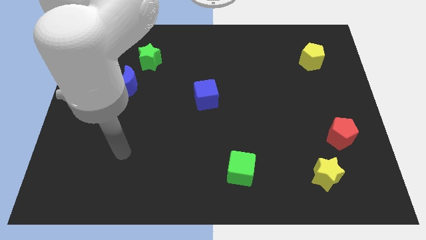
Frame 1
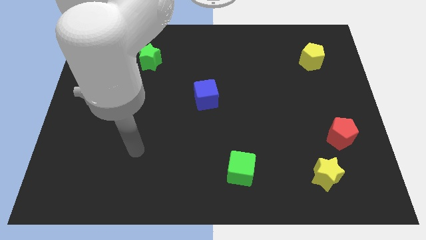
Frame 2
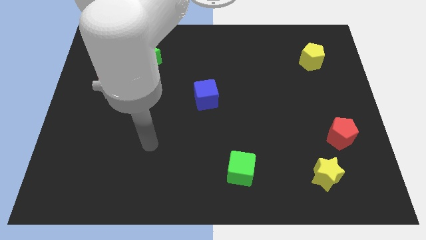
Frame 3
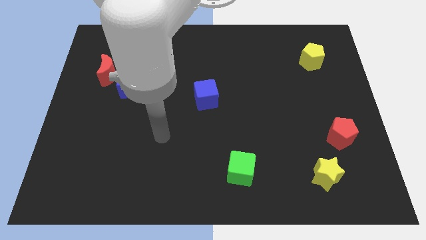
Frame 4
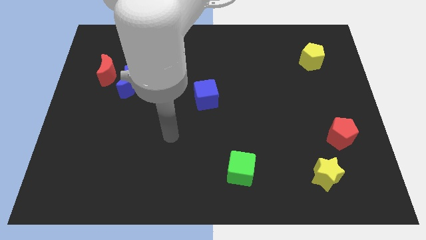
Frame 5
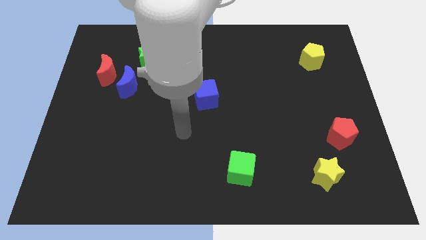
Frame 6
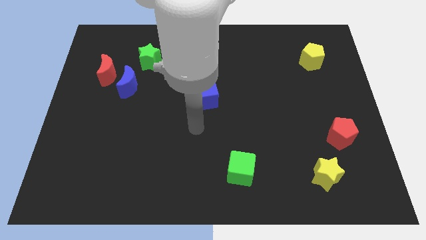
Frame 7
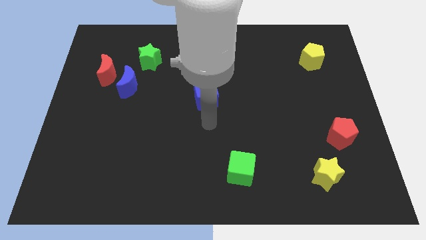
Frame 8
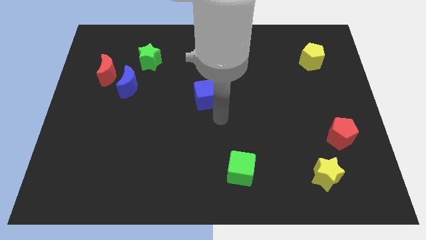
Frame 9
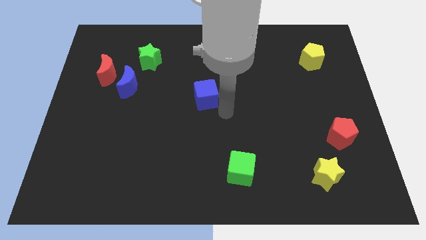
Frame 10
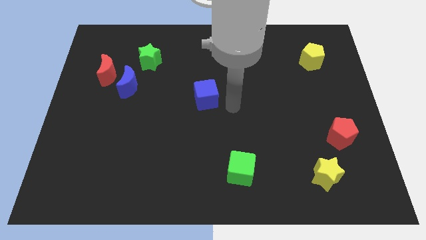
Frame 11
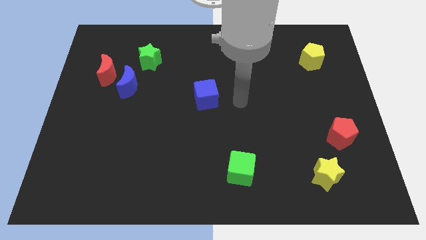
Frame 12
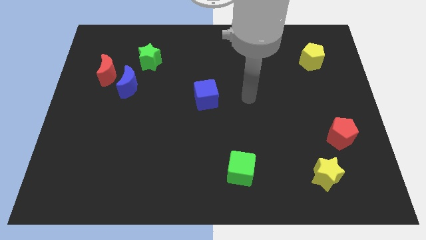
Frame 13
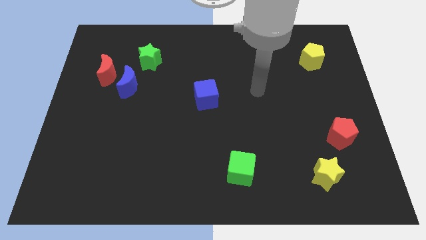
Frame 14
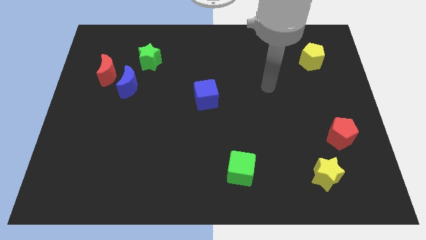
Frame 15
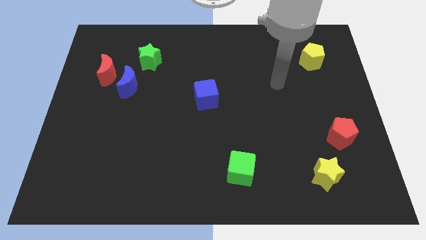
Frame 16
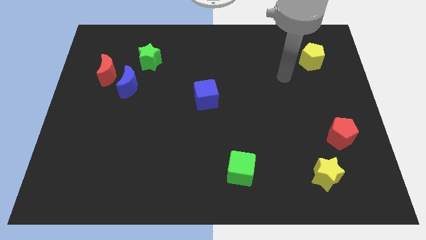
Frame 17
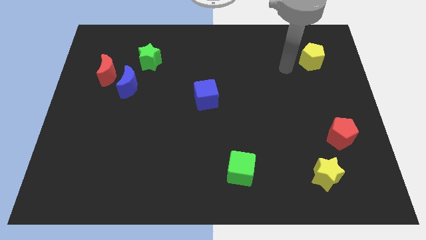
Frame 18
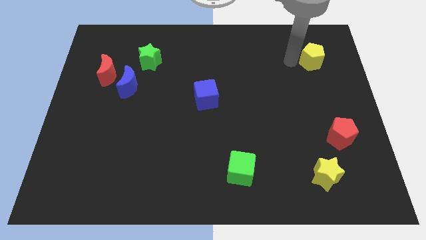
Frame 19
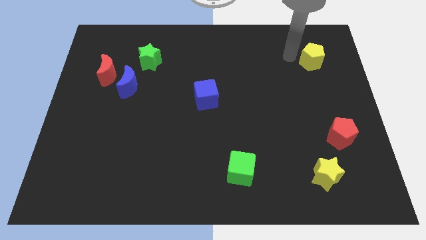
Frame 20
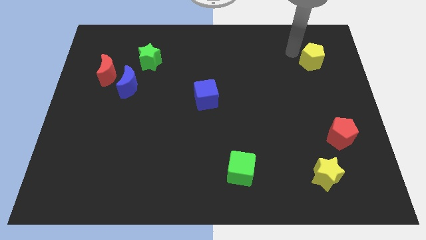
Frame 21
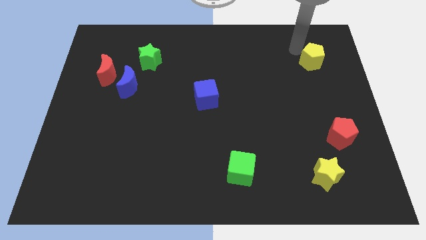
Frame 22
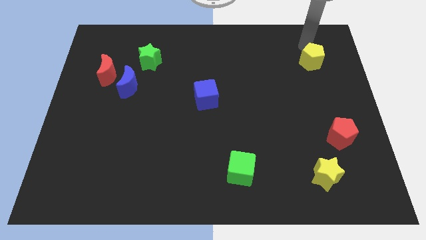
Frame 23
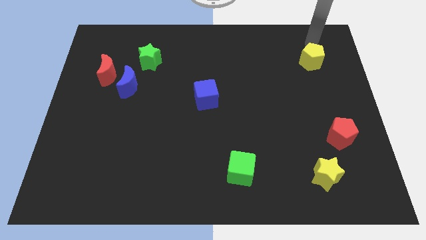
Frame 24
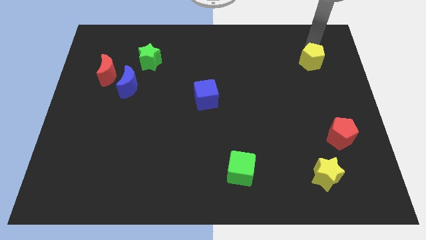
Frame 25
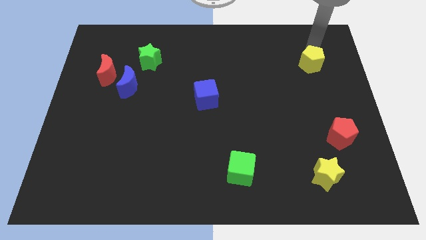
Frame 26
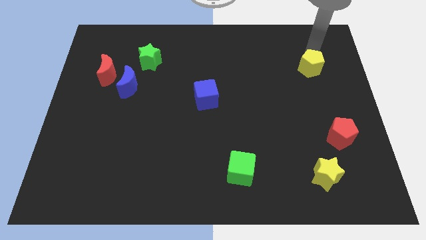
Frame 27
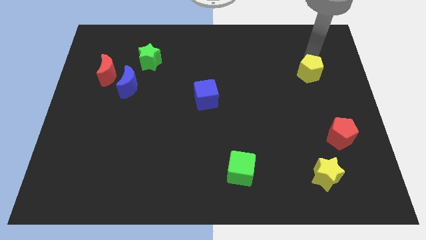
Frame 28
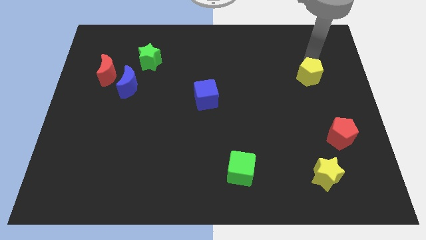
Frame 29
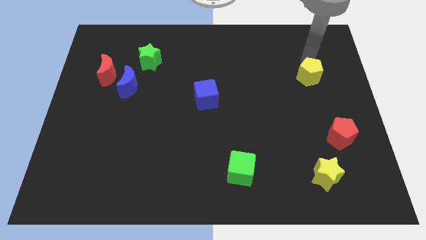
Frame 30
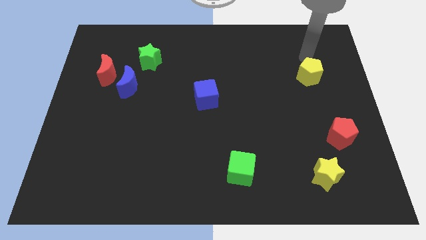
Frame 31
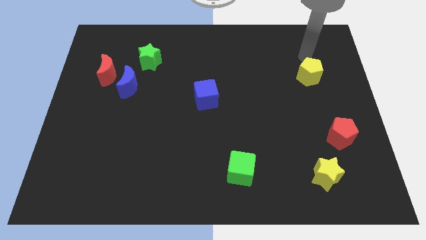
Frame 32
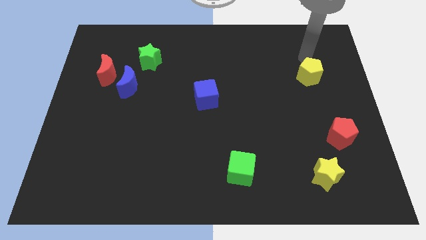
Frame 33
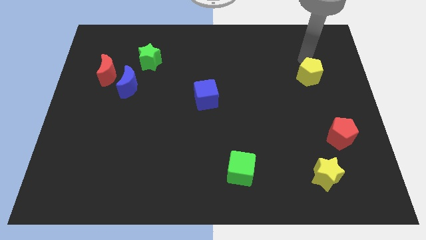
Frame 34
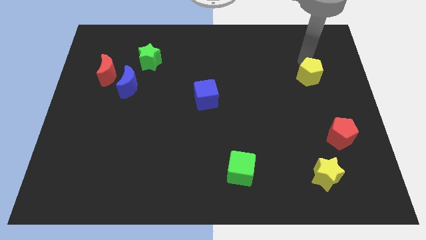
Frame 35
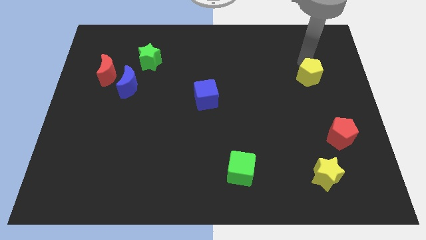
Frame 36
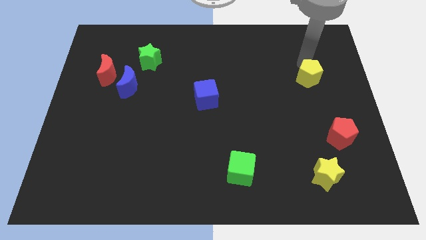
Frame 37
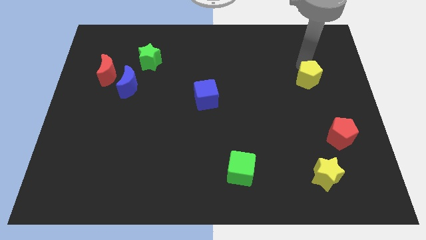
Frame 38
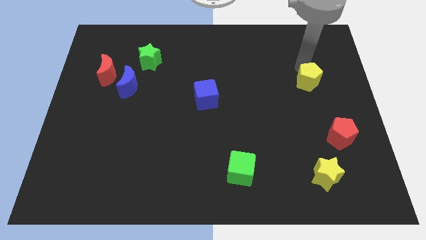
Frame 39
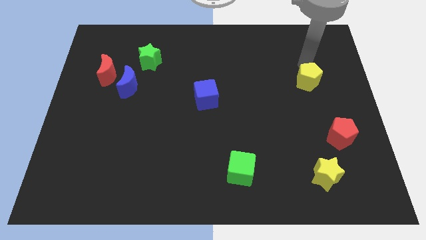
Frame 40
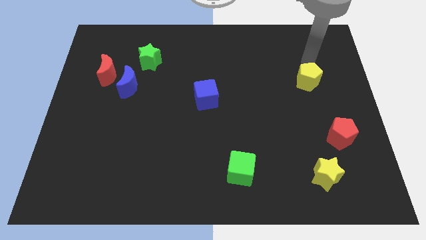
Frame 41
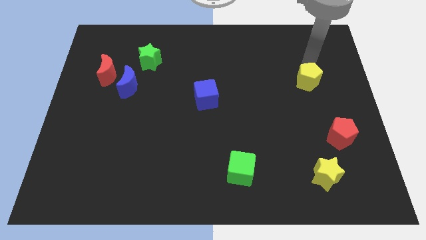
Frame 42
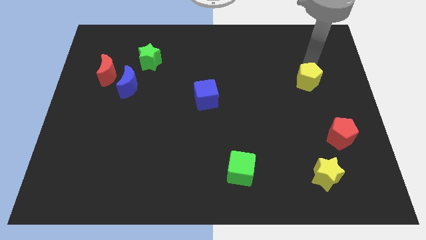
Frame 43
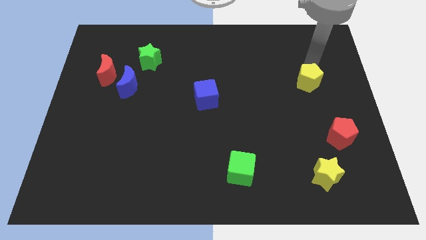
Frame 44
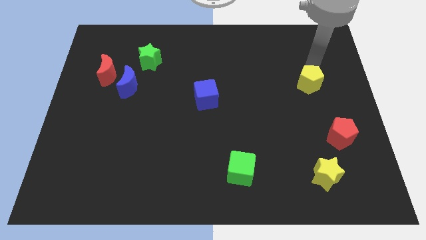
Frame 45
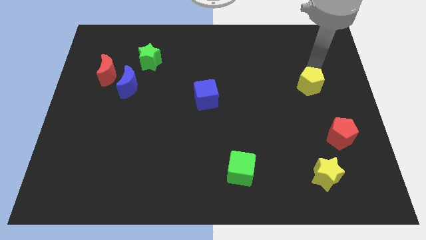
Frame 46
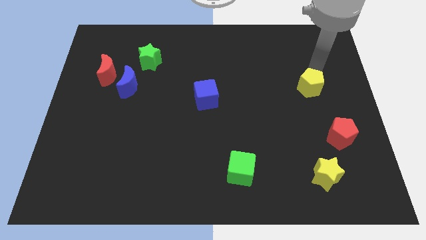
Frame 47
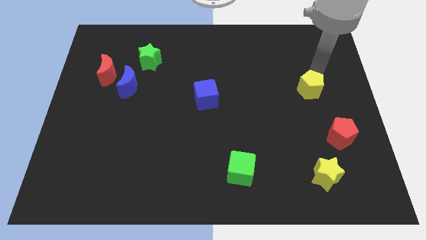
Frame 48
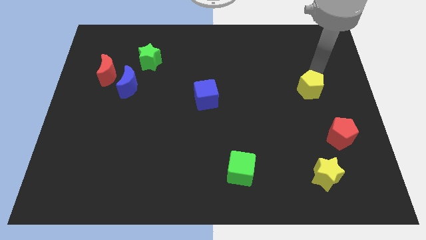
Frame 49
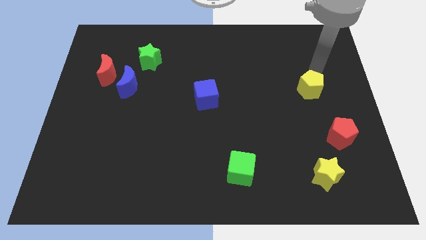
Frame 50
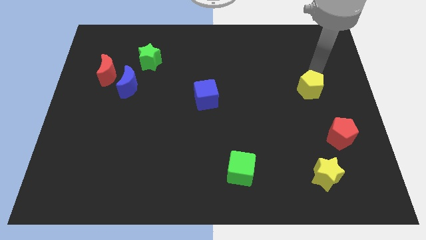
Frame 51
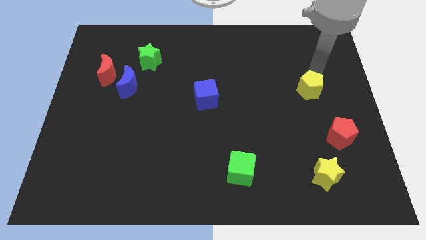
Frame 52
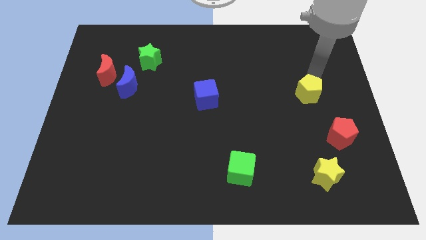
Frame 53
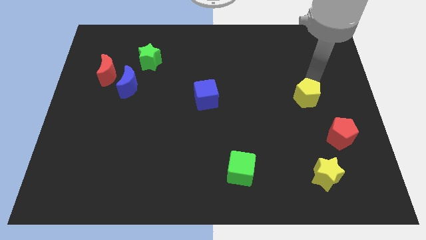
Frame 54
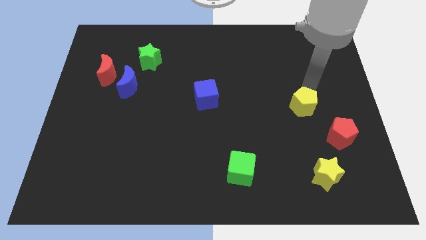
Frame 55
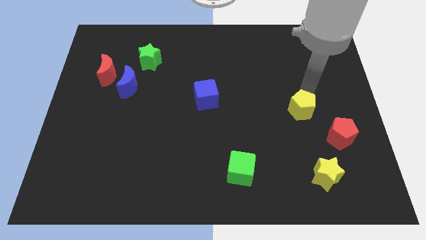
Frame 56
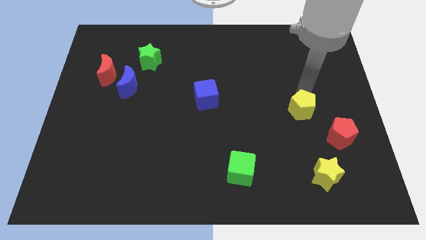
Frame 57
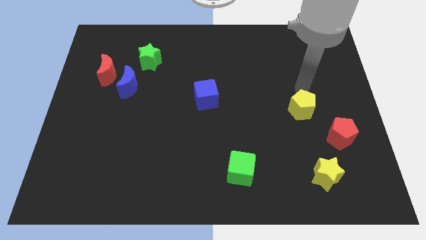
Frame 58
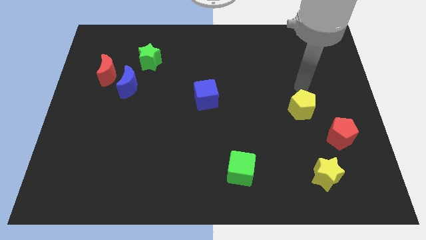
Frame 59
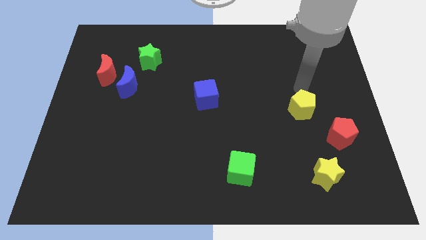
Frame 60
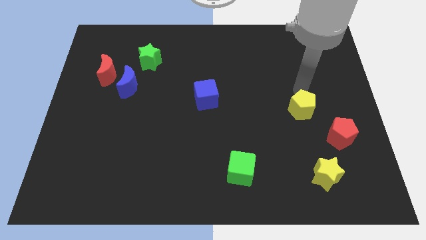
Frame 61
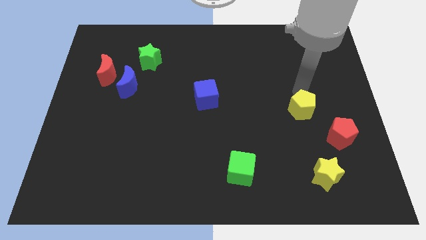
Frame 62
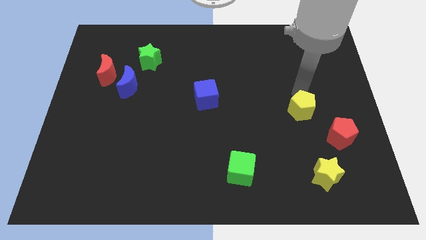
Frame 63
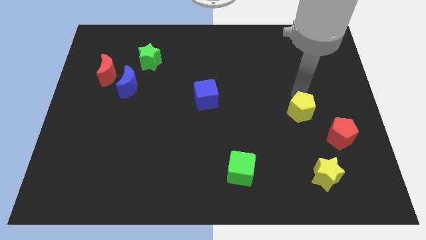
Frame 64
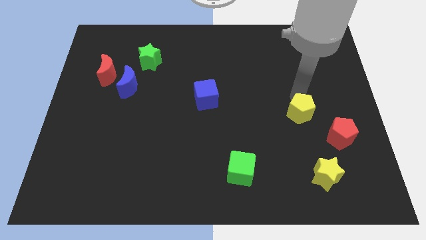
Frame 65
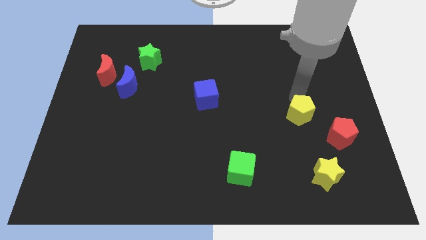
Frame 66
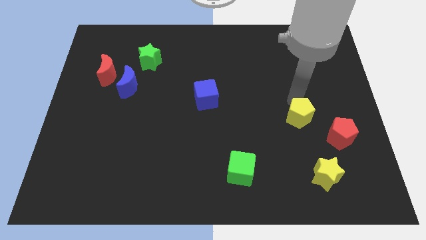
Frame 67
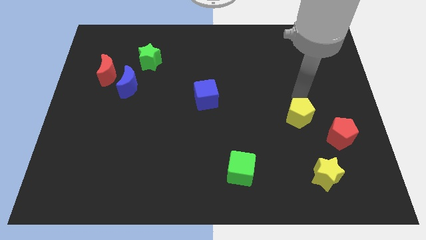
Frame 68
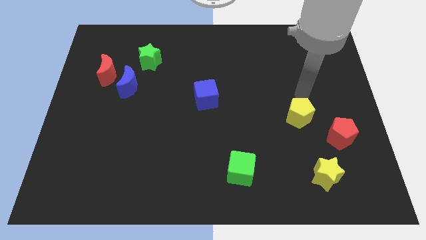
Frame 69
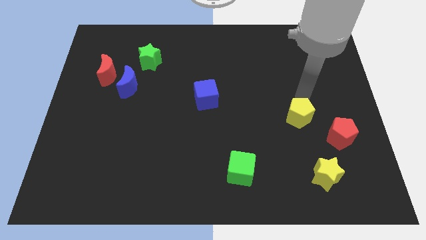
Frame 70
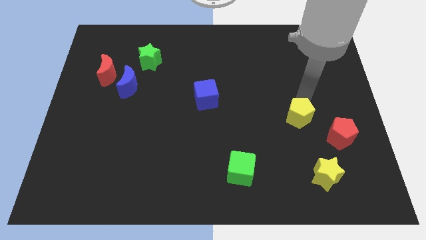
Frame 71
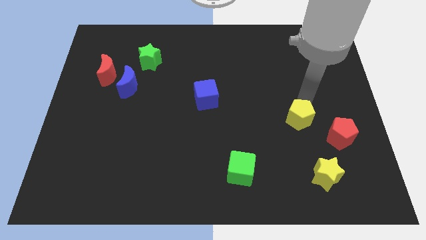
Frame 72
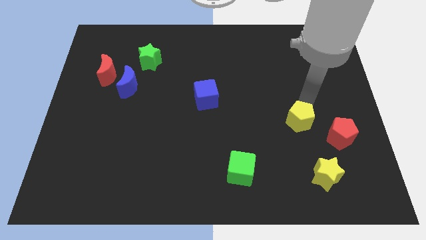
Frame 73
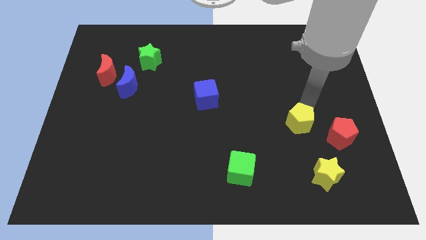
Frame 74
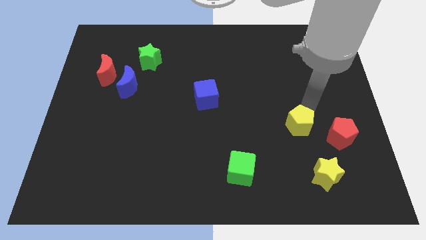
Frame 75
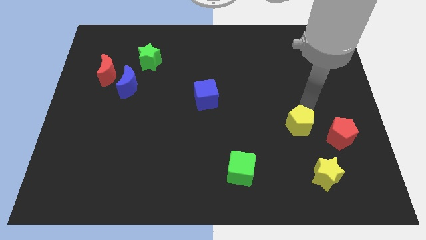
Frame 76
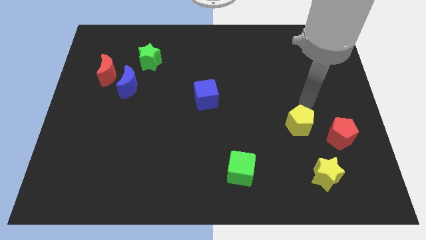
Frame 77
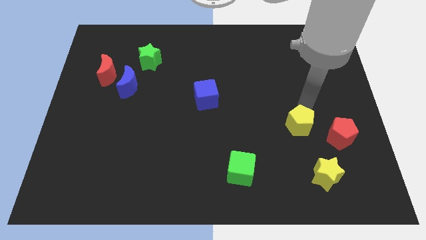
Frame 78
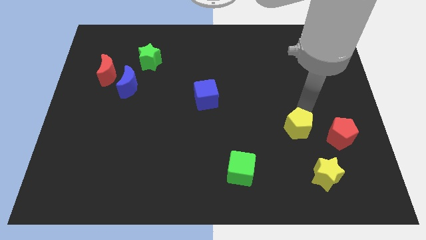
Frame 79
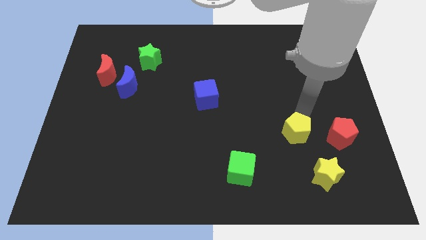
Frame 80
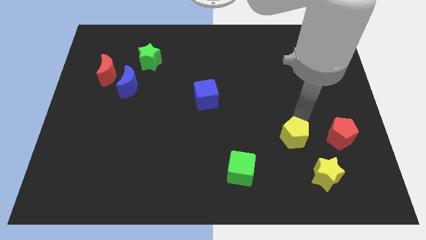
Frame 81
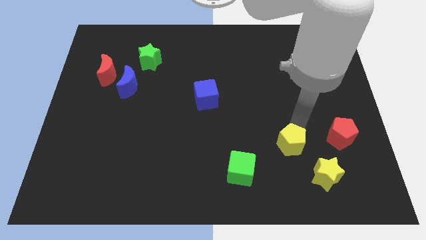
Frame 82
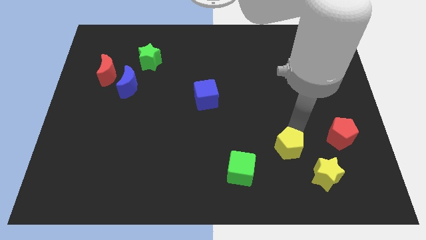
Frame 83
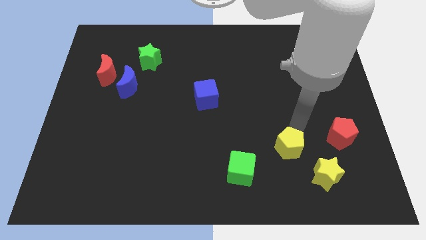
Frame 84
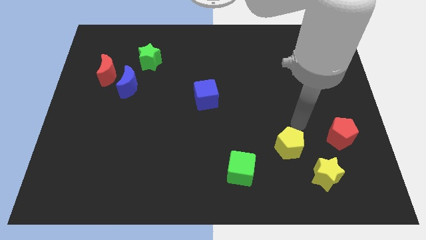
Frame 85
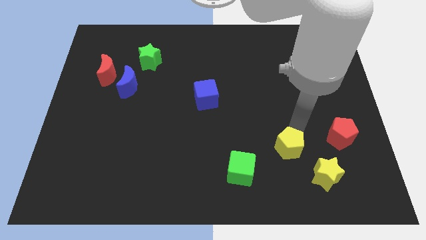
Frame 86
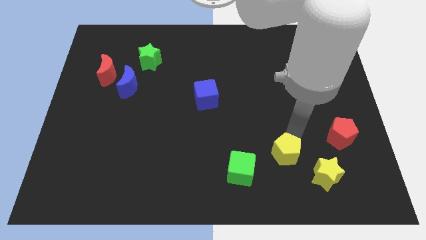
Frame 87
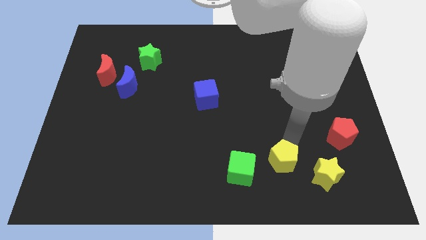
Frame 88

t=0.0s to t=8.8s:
move the yellow pentagon to the left side of the yellow star
